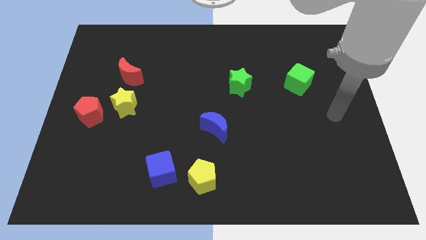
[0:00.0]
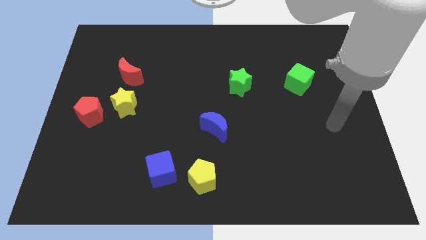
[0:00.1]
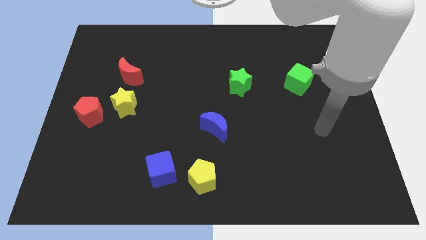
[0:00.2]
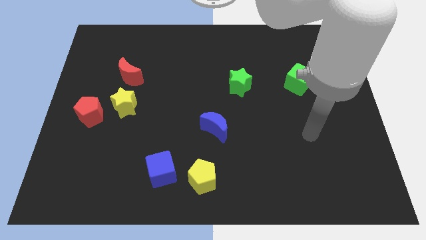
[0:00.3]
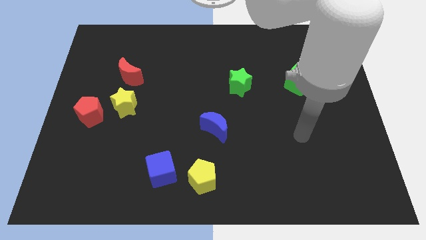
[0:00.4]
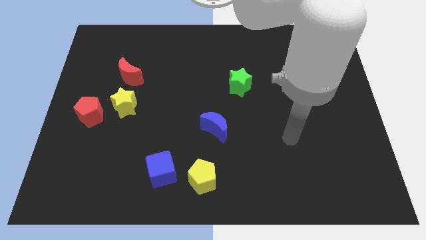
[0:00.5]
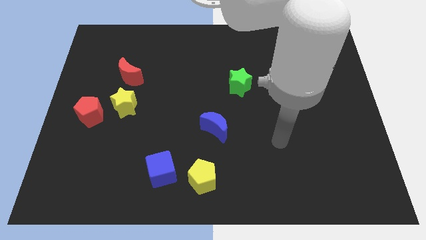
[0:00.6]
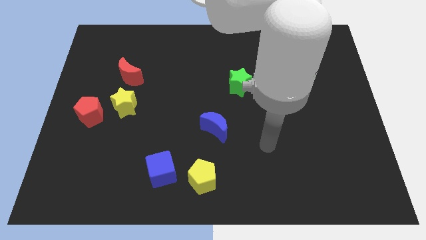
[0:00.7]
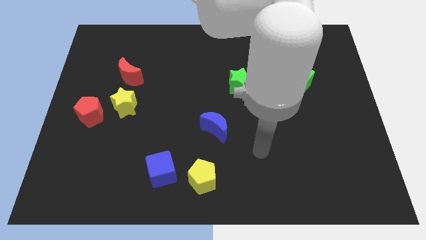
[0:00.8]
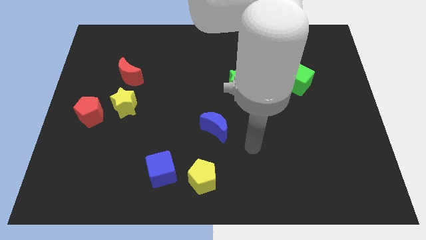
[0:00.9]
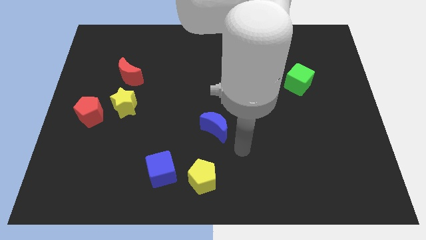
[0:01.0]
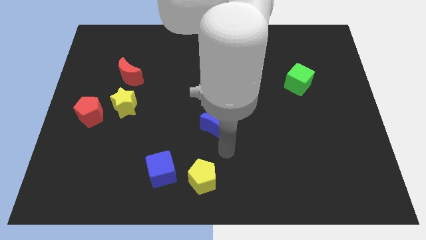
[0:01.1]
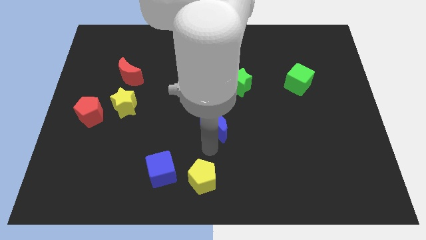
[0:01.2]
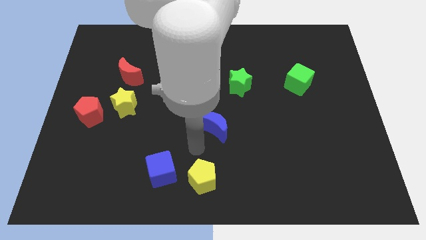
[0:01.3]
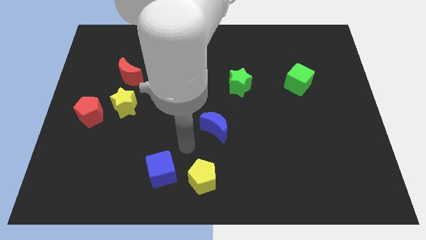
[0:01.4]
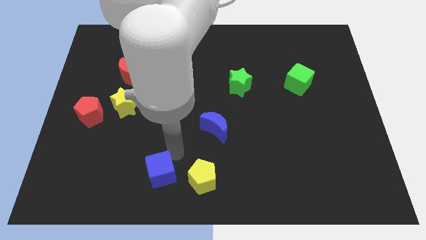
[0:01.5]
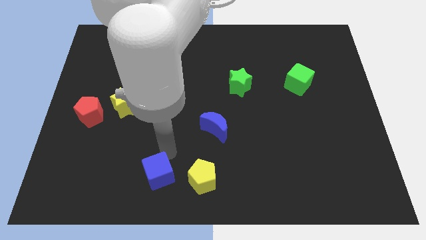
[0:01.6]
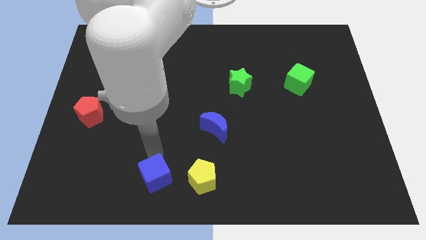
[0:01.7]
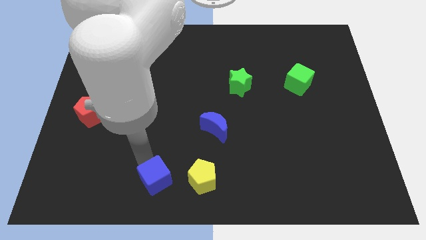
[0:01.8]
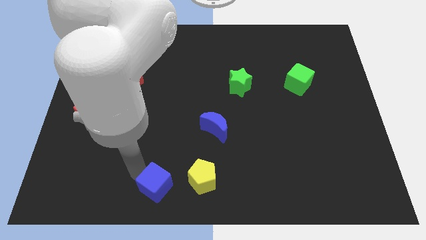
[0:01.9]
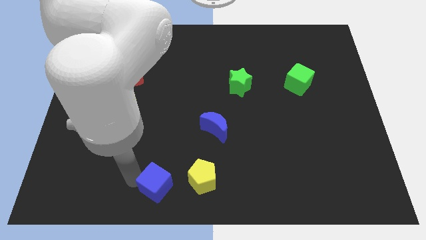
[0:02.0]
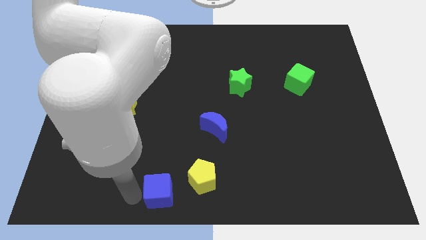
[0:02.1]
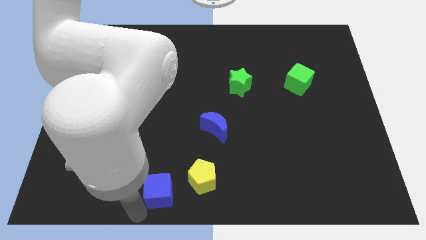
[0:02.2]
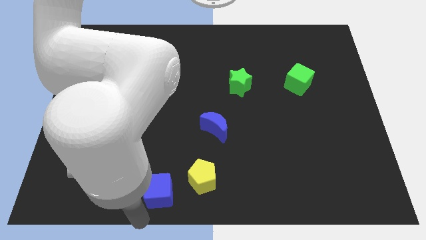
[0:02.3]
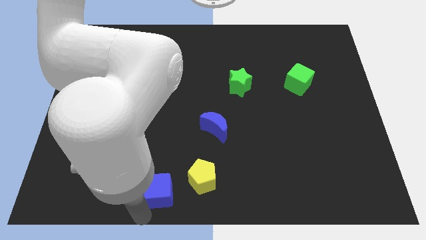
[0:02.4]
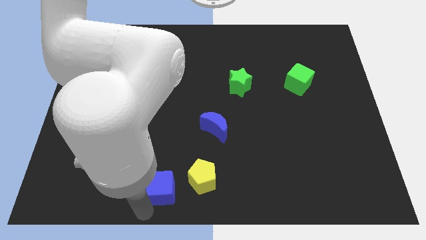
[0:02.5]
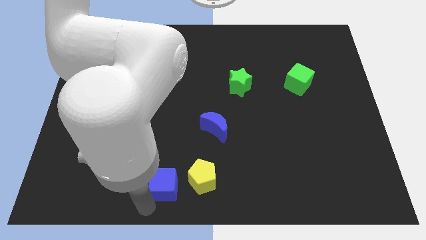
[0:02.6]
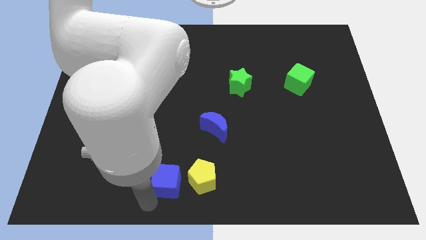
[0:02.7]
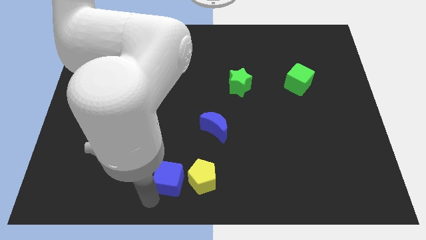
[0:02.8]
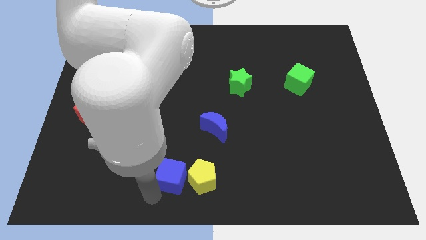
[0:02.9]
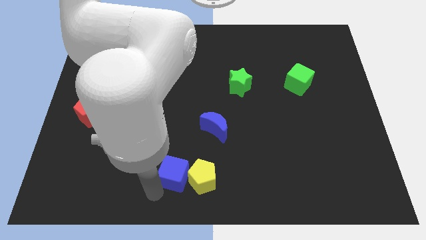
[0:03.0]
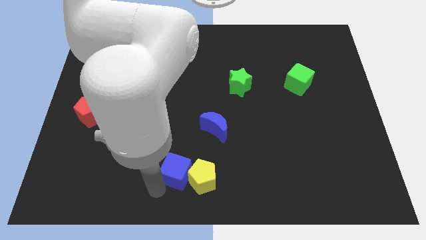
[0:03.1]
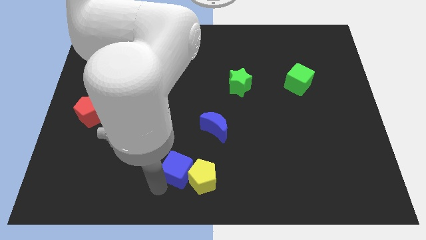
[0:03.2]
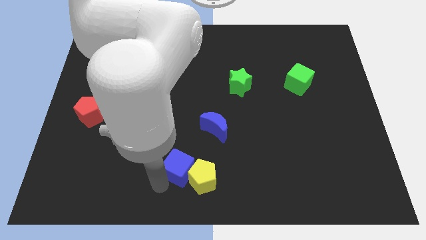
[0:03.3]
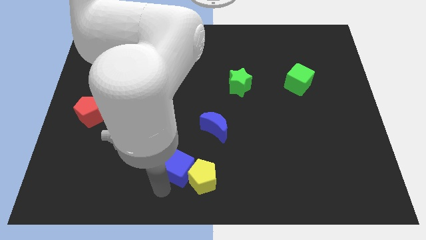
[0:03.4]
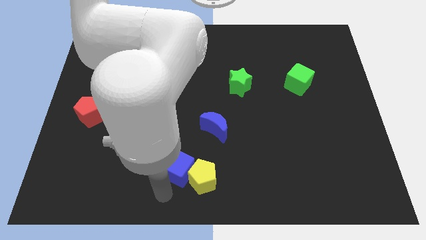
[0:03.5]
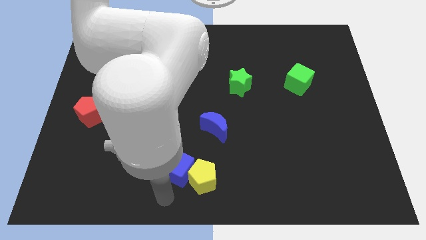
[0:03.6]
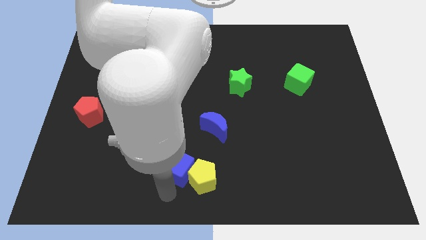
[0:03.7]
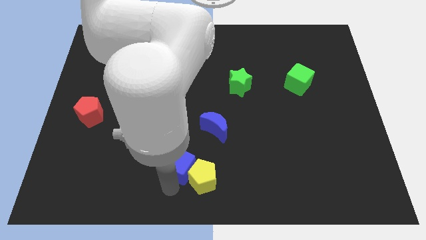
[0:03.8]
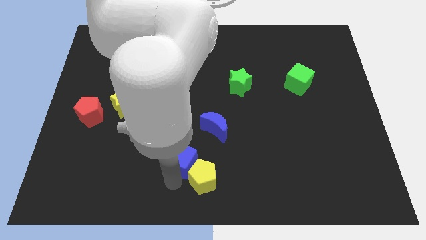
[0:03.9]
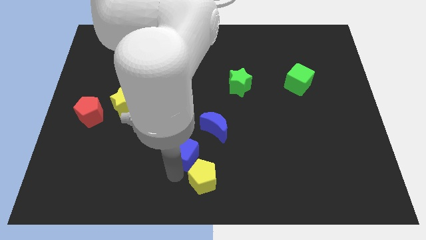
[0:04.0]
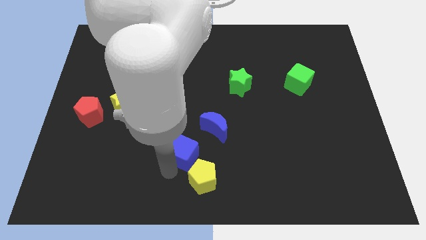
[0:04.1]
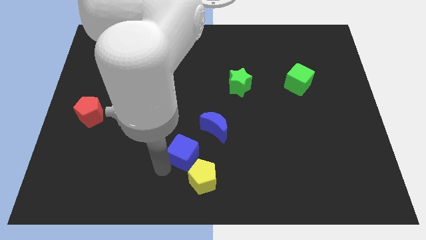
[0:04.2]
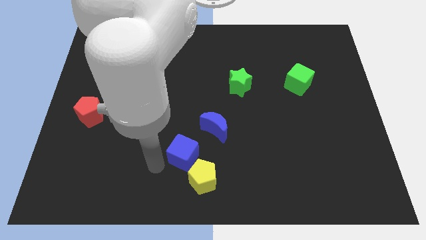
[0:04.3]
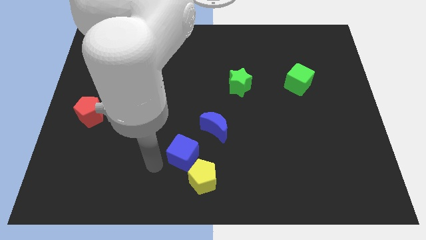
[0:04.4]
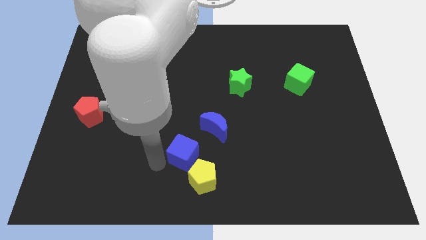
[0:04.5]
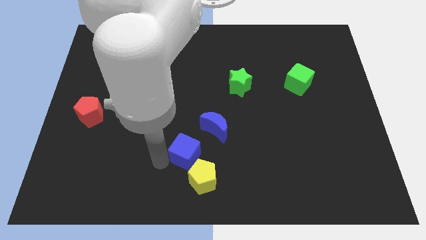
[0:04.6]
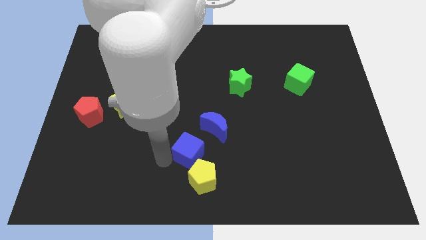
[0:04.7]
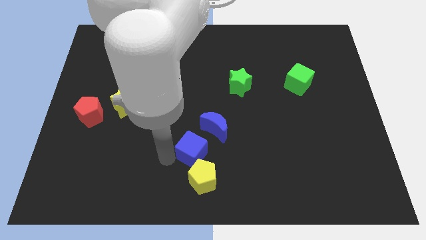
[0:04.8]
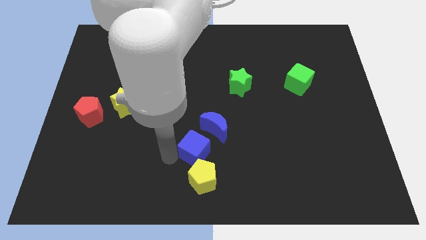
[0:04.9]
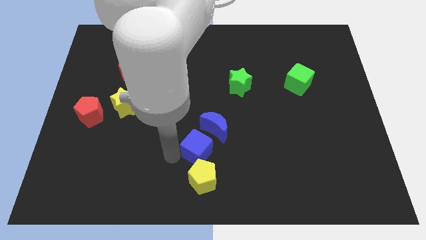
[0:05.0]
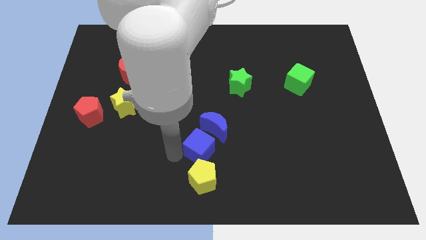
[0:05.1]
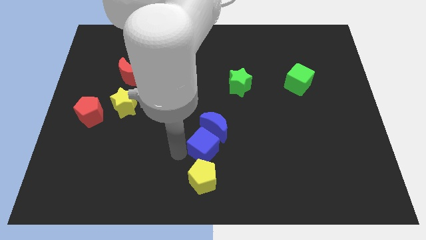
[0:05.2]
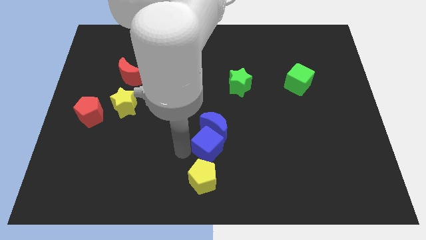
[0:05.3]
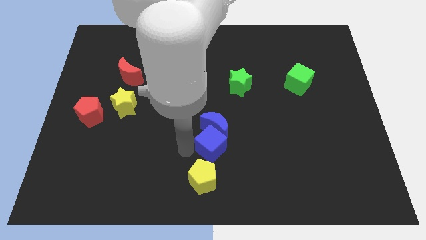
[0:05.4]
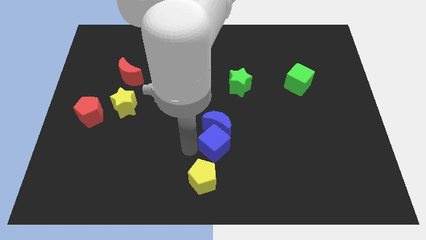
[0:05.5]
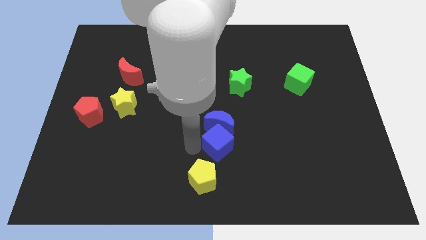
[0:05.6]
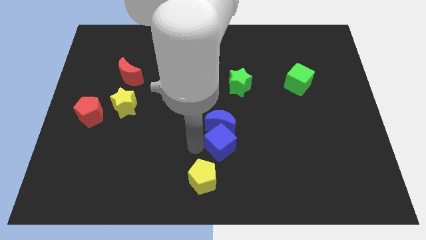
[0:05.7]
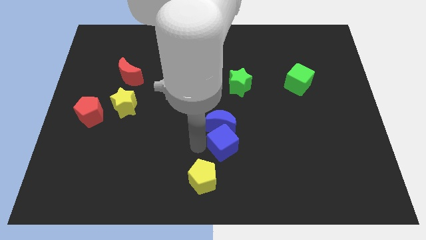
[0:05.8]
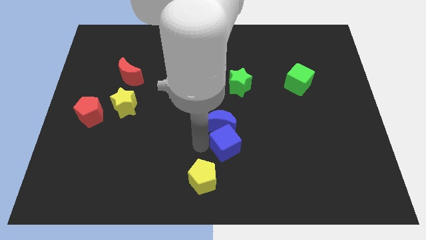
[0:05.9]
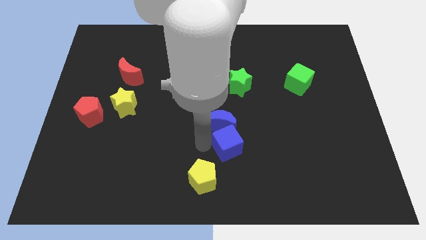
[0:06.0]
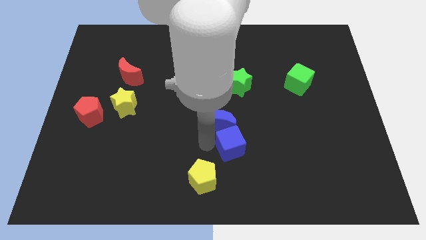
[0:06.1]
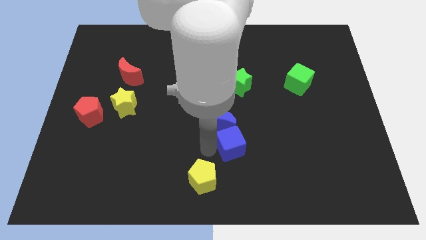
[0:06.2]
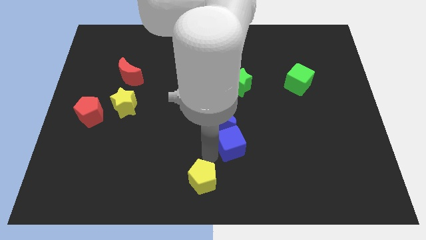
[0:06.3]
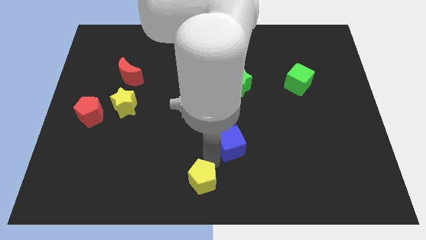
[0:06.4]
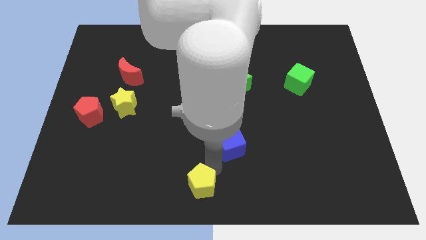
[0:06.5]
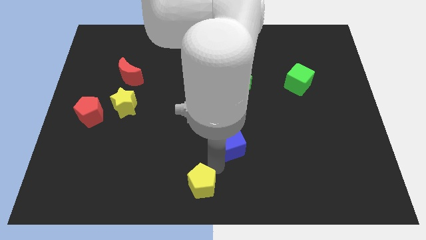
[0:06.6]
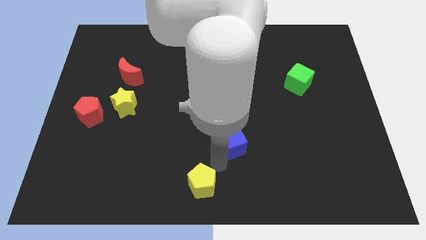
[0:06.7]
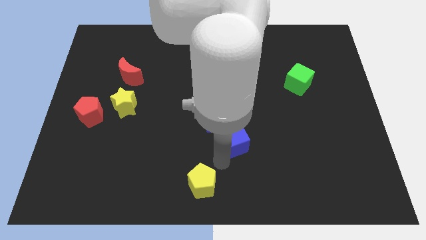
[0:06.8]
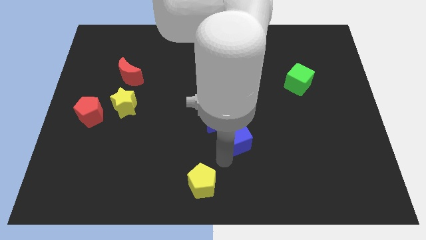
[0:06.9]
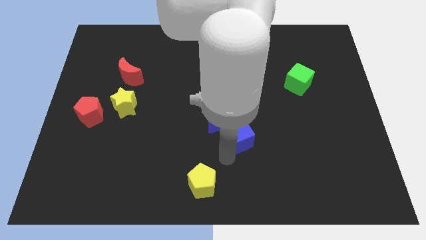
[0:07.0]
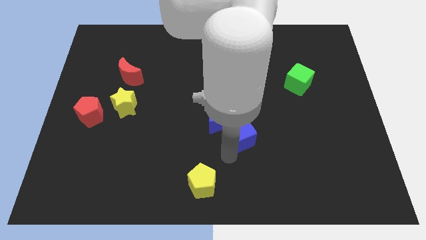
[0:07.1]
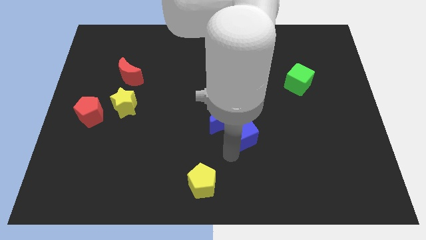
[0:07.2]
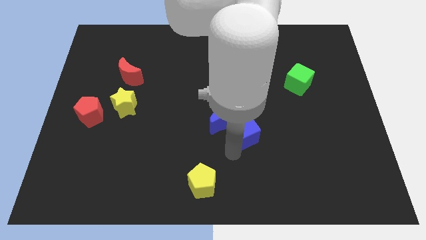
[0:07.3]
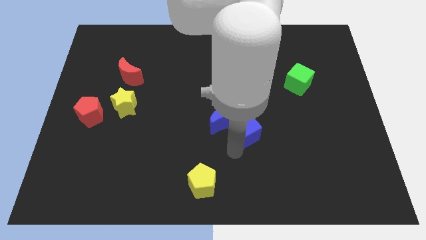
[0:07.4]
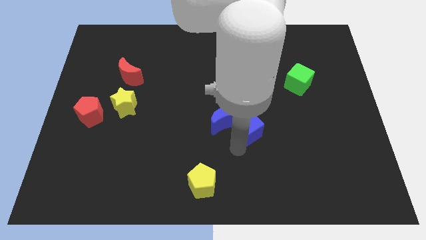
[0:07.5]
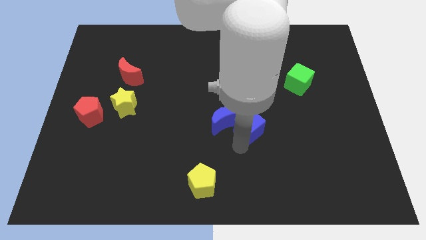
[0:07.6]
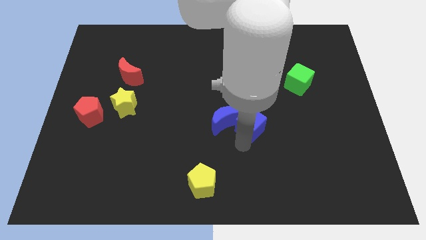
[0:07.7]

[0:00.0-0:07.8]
move the blue cube up and right diagonally

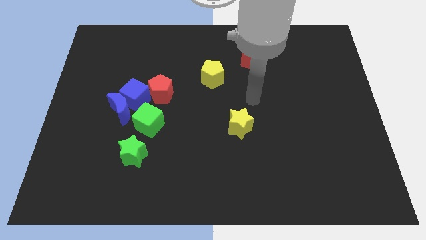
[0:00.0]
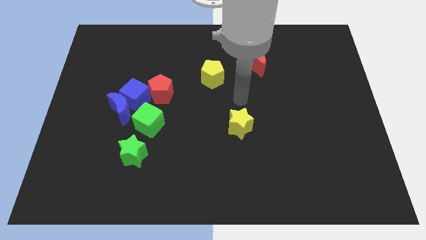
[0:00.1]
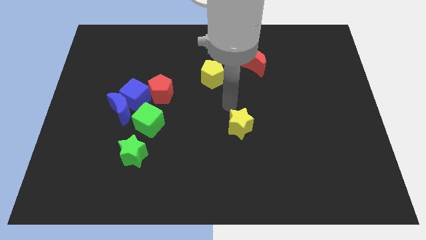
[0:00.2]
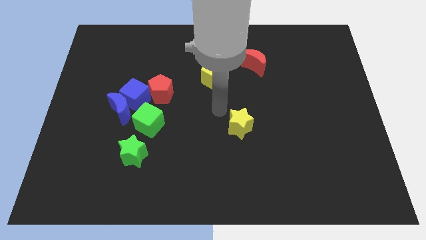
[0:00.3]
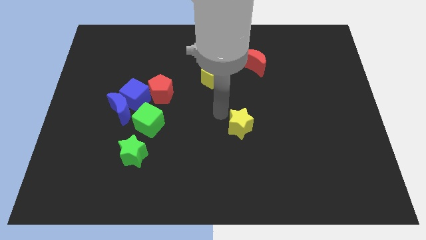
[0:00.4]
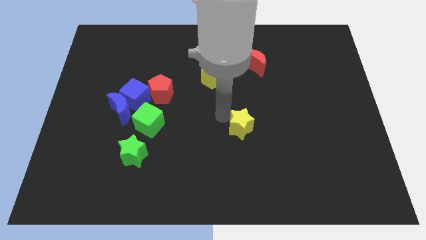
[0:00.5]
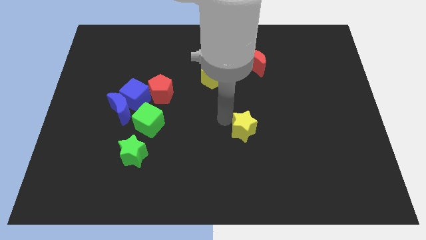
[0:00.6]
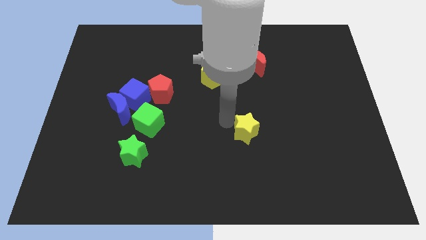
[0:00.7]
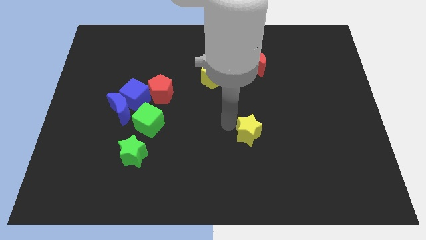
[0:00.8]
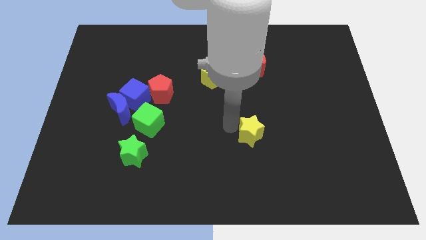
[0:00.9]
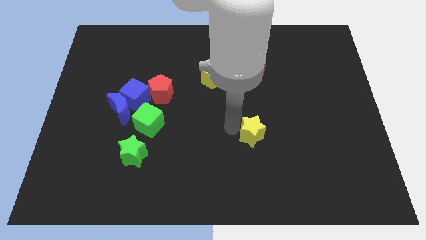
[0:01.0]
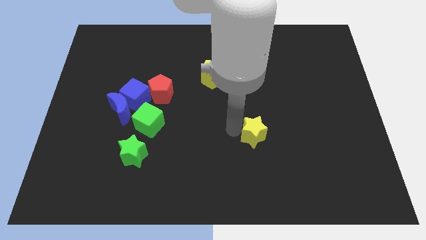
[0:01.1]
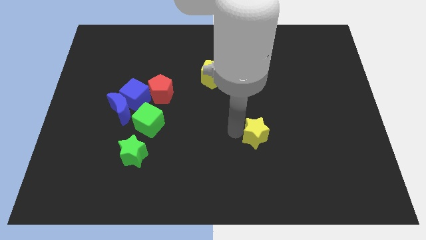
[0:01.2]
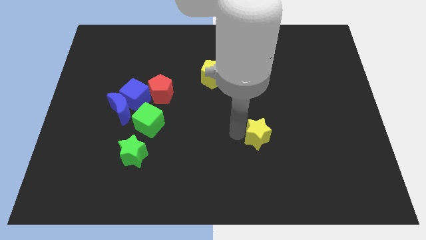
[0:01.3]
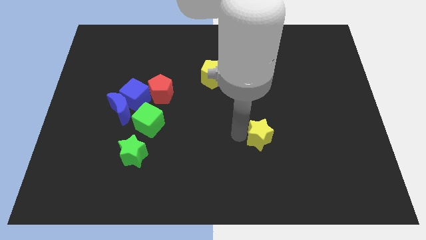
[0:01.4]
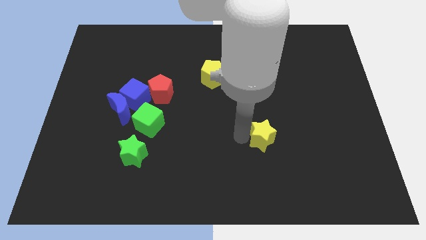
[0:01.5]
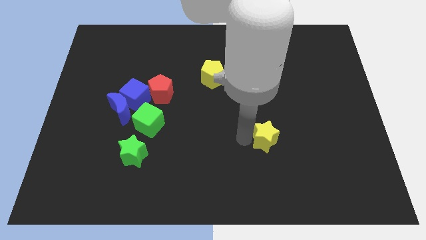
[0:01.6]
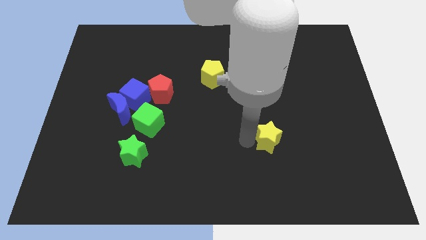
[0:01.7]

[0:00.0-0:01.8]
move the yellow star down and right slightly
